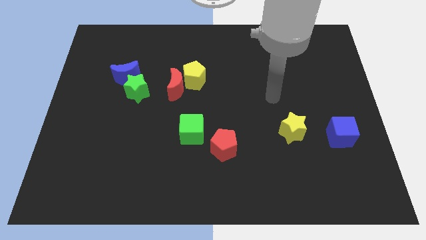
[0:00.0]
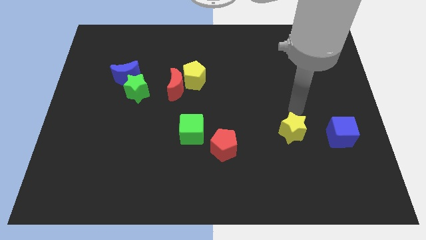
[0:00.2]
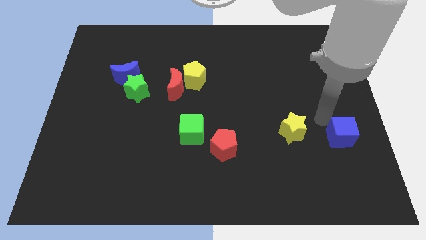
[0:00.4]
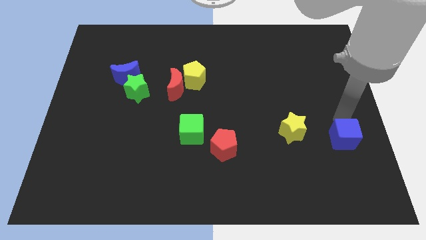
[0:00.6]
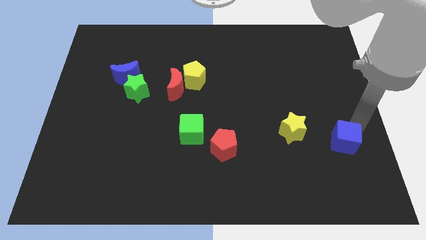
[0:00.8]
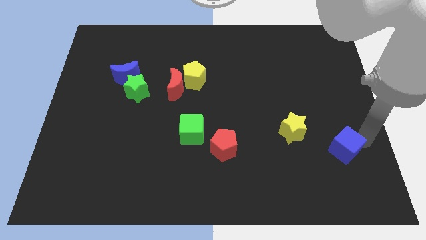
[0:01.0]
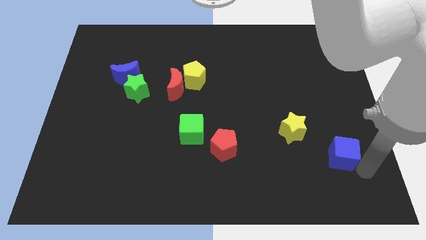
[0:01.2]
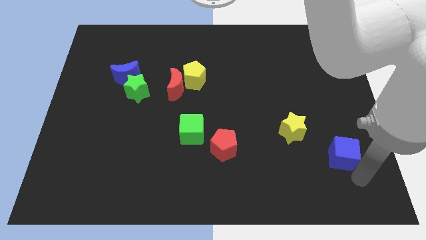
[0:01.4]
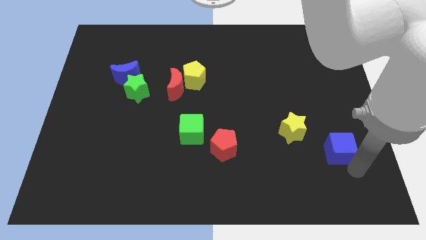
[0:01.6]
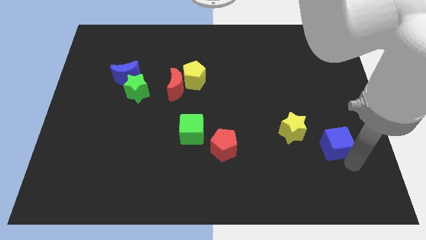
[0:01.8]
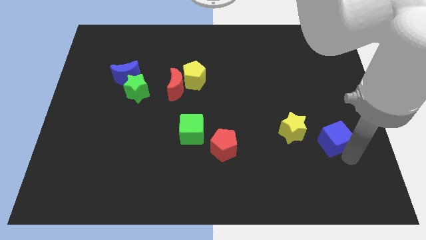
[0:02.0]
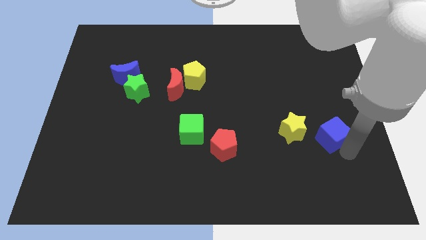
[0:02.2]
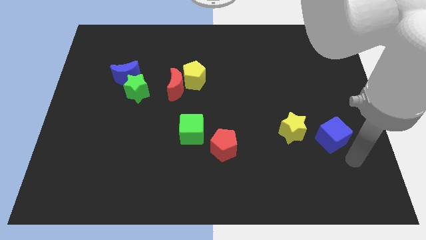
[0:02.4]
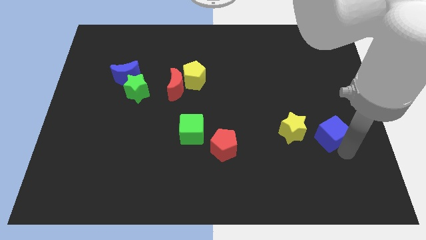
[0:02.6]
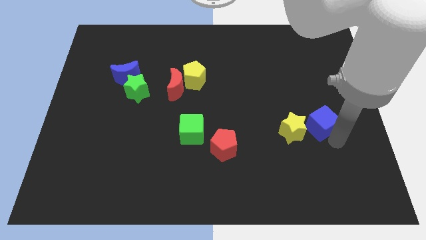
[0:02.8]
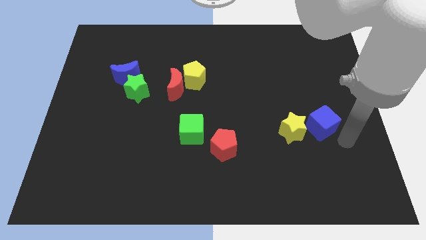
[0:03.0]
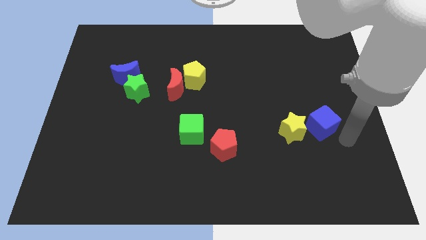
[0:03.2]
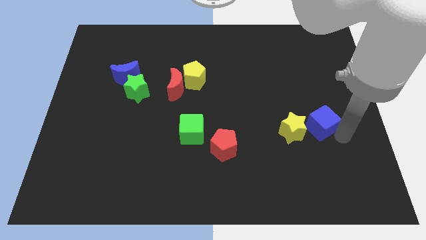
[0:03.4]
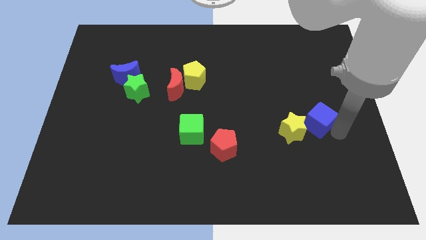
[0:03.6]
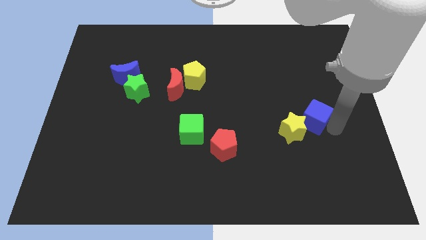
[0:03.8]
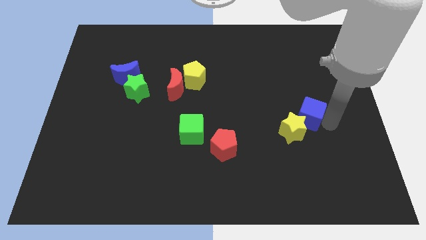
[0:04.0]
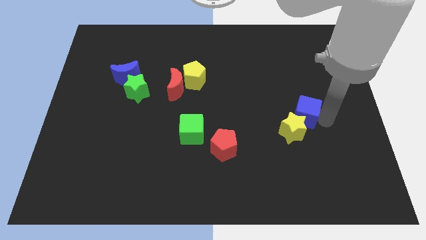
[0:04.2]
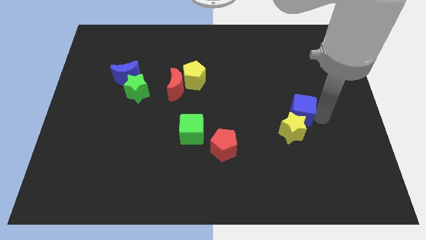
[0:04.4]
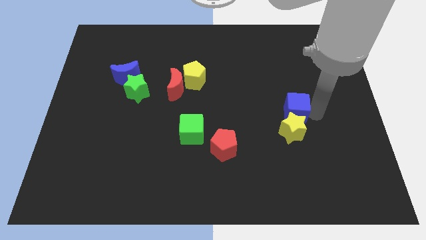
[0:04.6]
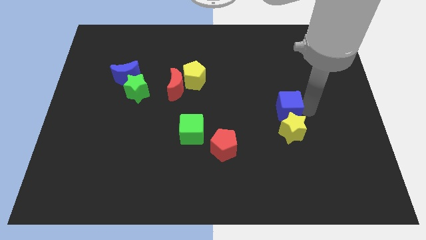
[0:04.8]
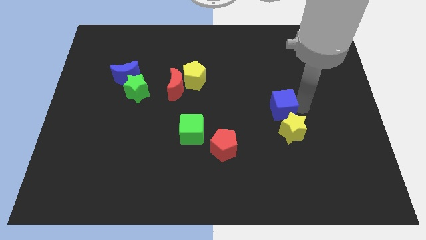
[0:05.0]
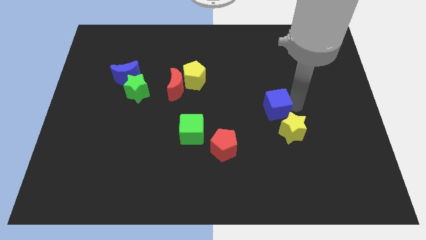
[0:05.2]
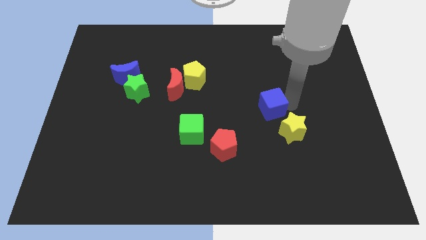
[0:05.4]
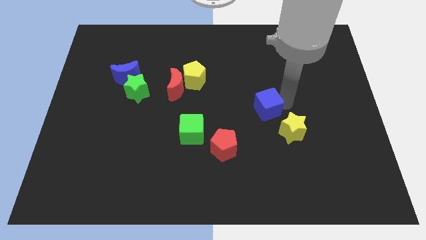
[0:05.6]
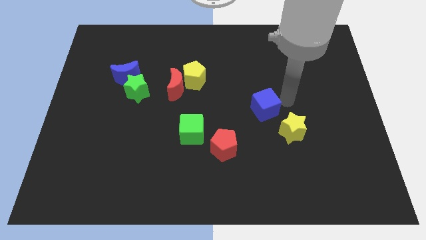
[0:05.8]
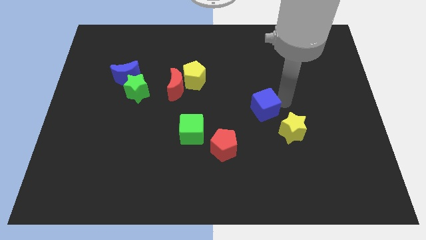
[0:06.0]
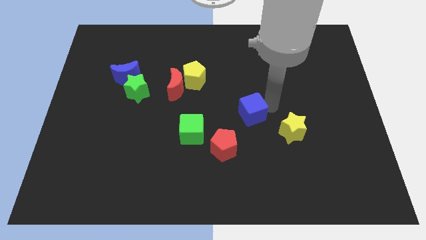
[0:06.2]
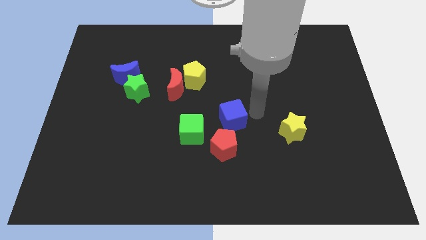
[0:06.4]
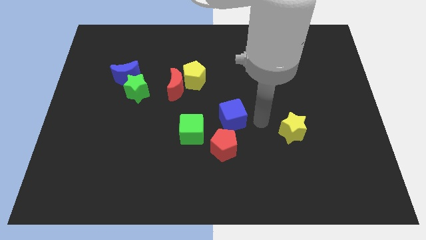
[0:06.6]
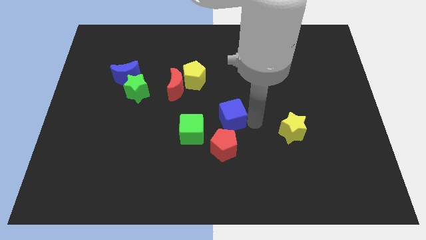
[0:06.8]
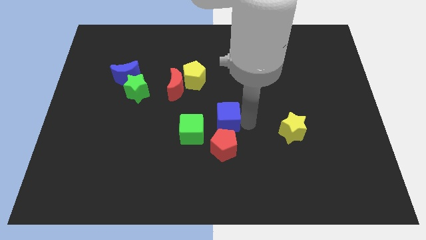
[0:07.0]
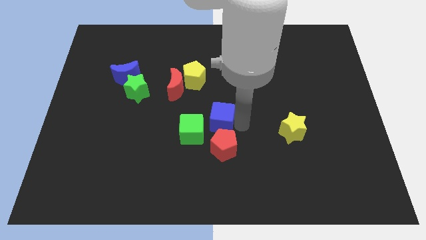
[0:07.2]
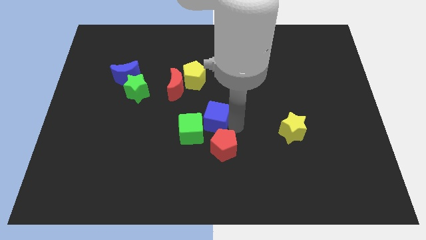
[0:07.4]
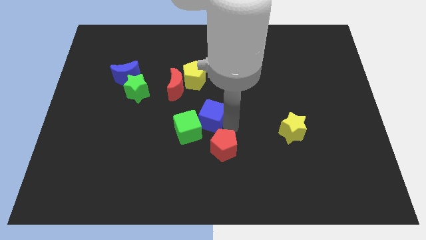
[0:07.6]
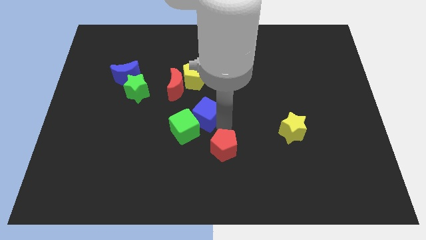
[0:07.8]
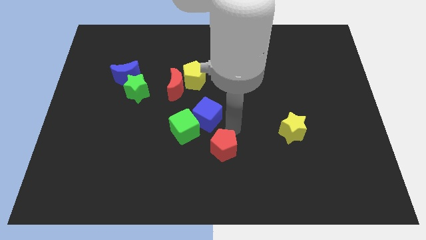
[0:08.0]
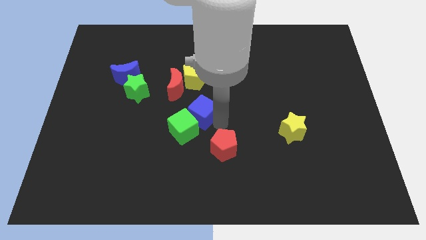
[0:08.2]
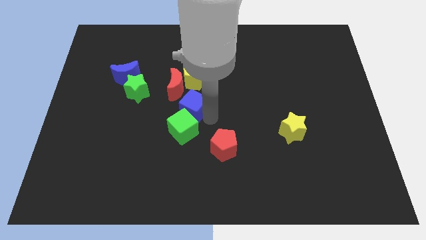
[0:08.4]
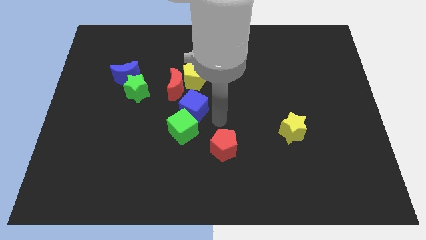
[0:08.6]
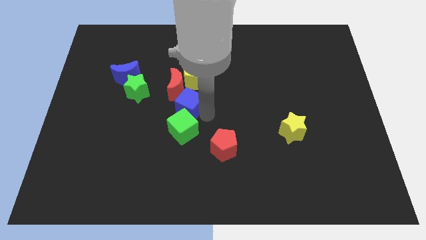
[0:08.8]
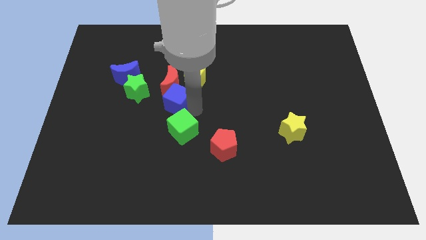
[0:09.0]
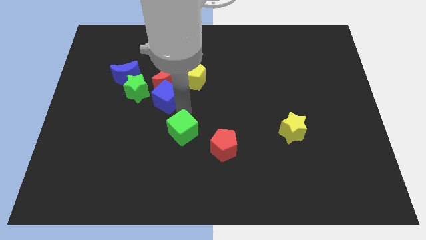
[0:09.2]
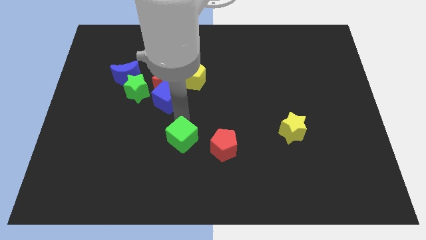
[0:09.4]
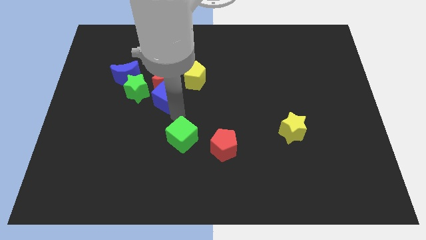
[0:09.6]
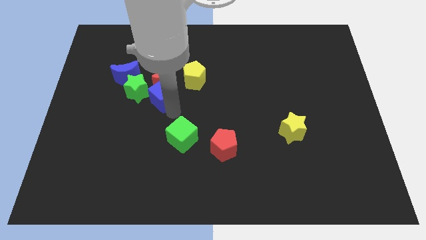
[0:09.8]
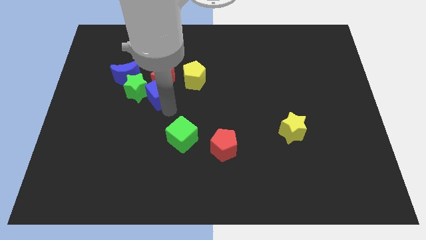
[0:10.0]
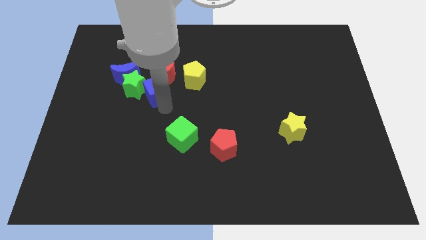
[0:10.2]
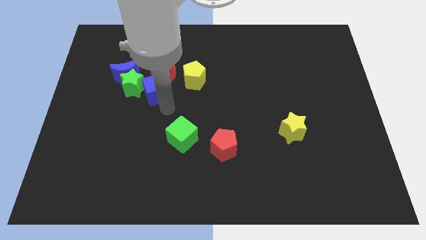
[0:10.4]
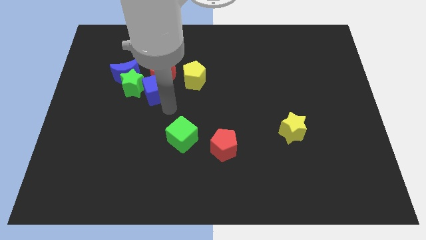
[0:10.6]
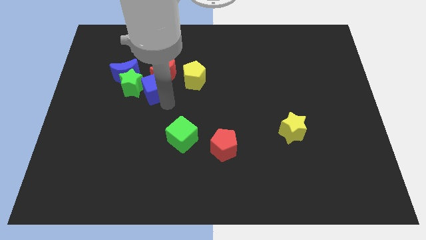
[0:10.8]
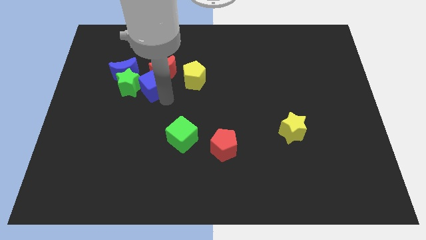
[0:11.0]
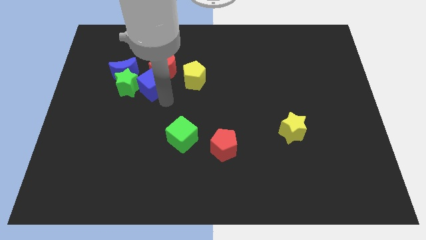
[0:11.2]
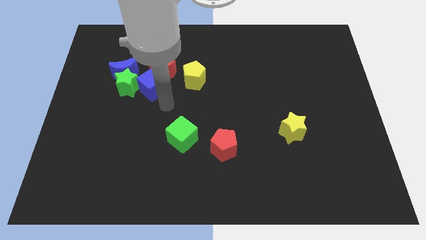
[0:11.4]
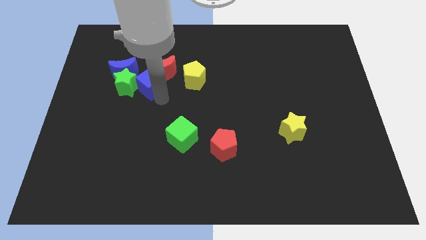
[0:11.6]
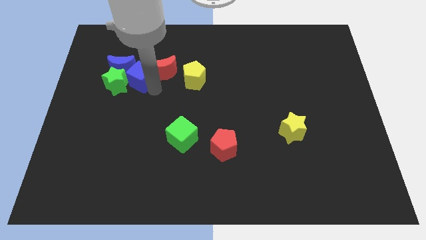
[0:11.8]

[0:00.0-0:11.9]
put the blue cube towards the blue moon

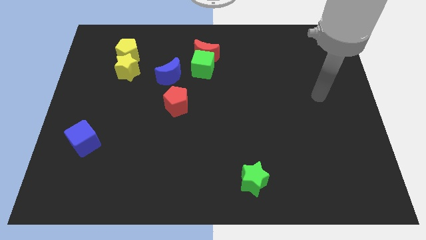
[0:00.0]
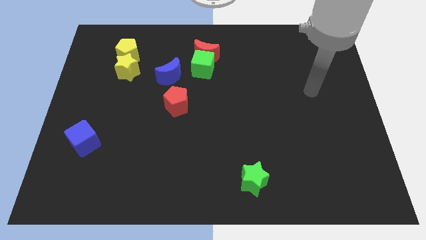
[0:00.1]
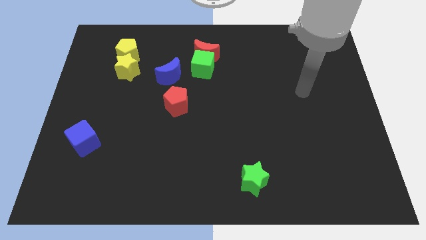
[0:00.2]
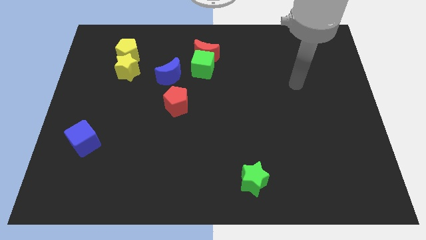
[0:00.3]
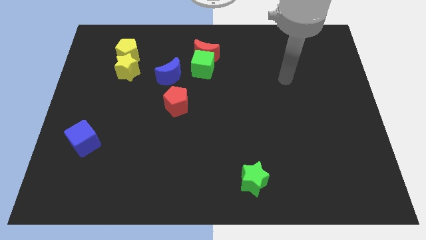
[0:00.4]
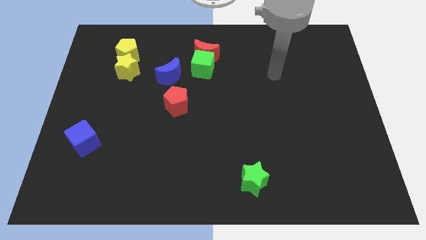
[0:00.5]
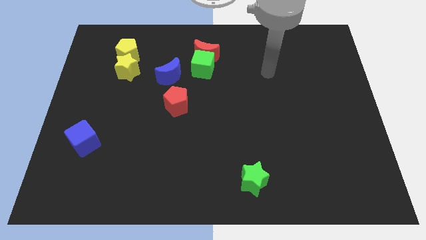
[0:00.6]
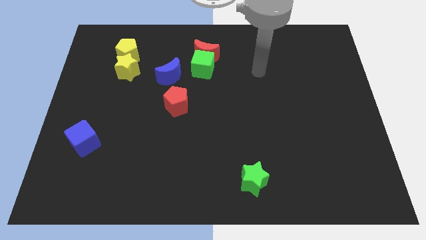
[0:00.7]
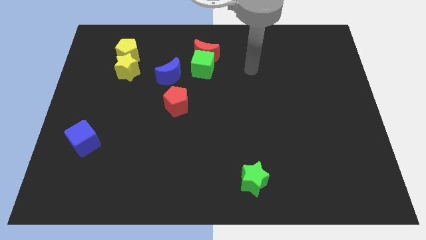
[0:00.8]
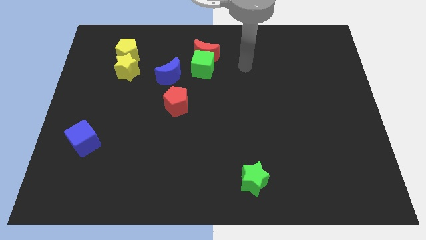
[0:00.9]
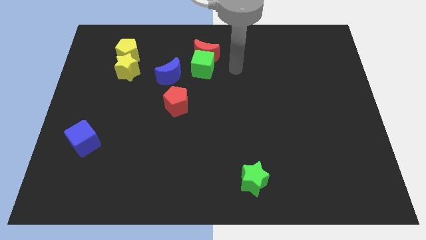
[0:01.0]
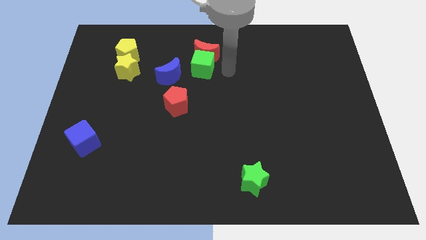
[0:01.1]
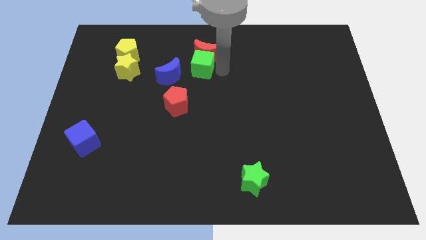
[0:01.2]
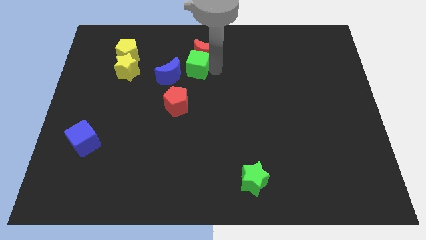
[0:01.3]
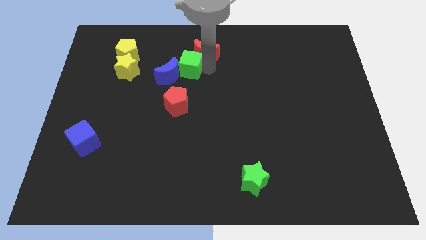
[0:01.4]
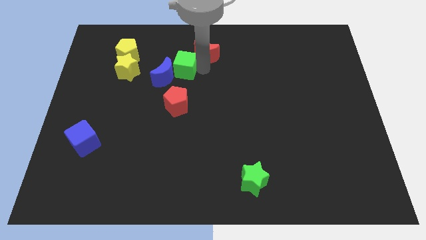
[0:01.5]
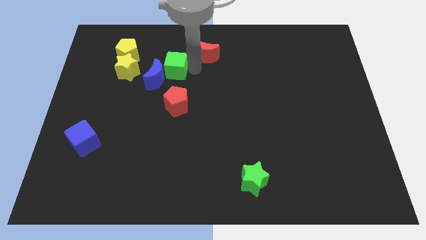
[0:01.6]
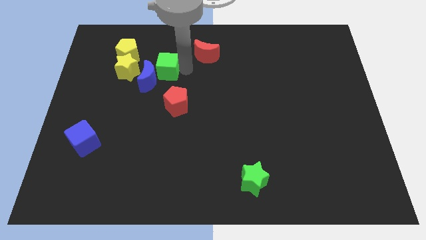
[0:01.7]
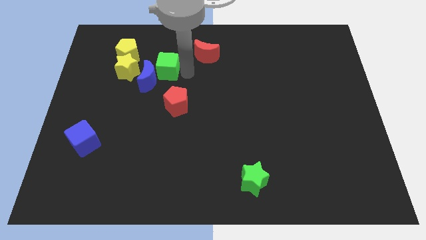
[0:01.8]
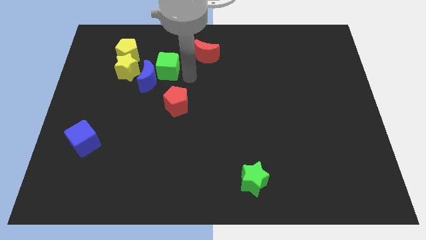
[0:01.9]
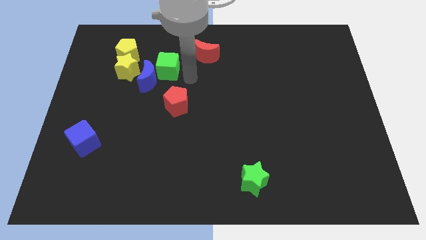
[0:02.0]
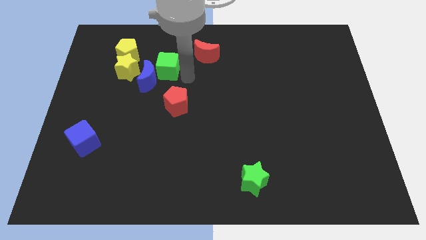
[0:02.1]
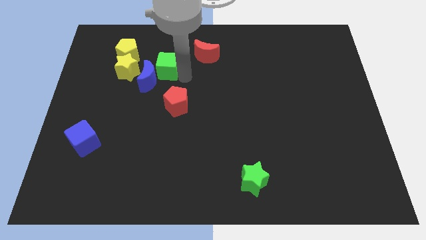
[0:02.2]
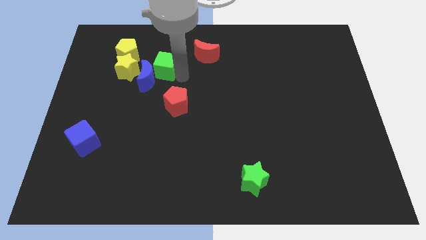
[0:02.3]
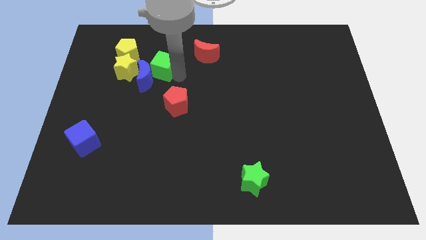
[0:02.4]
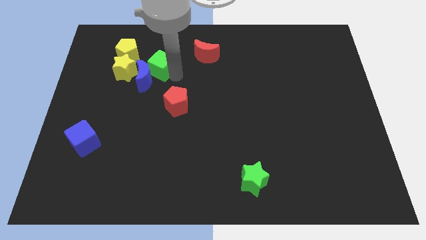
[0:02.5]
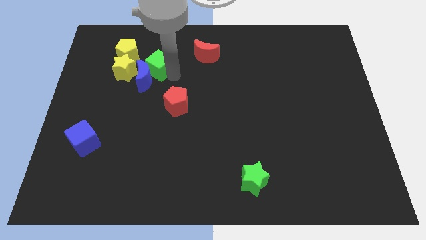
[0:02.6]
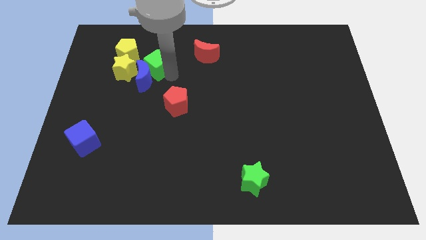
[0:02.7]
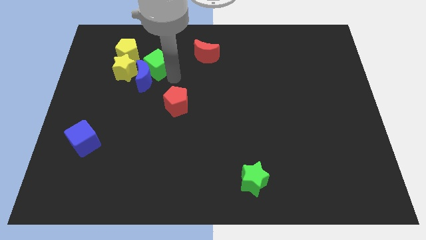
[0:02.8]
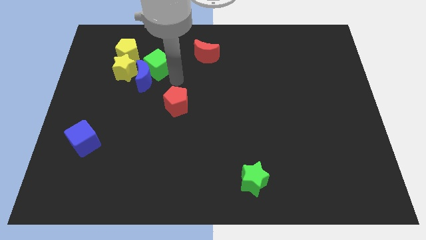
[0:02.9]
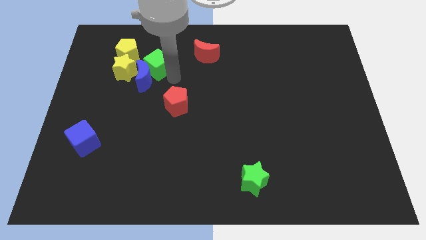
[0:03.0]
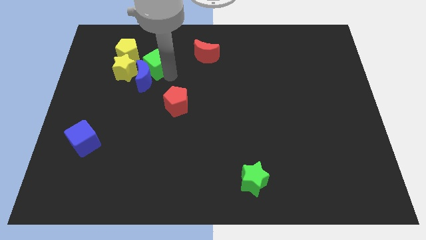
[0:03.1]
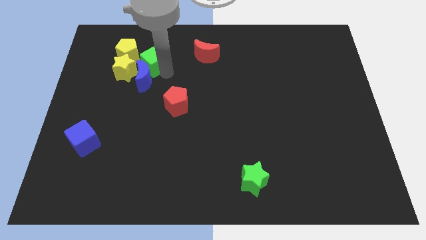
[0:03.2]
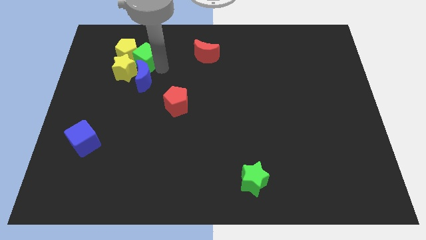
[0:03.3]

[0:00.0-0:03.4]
push the green cube close to the yellow pentagon
